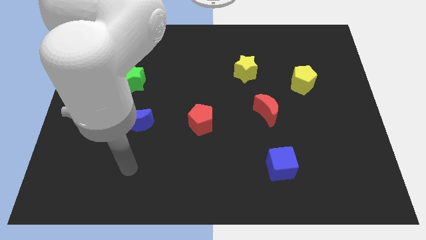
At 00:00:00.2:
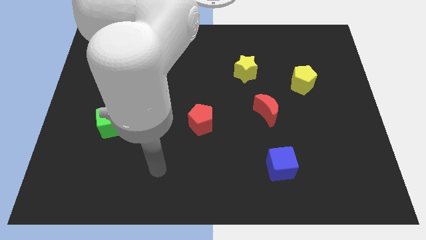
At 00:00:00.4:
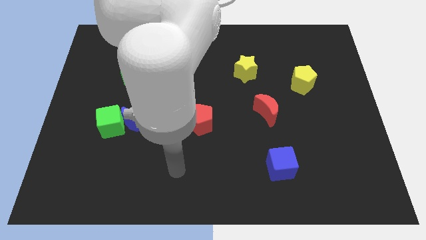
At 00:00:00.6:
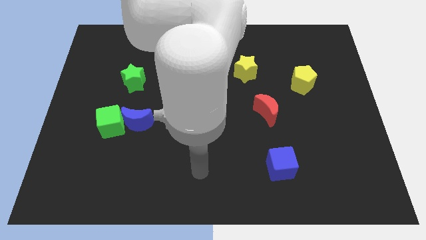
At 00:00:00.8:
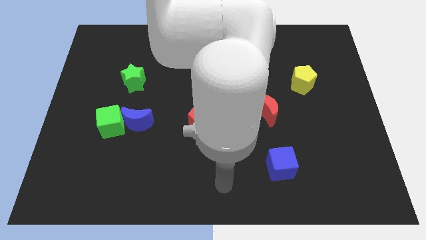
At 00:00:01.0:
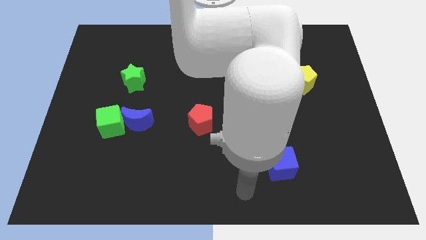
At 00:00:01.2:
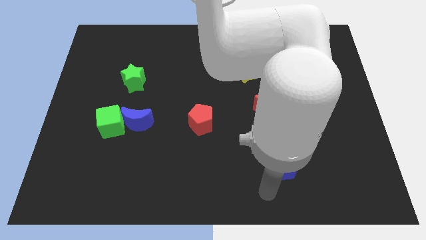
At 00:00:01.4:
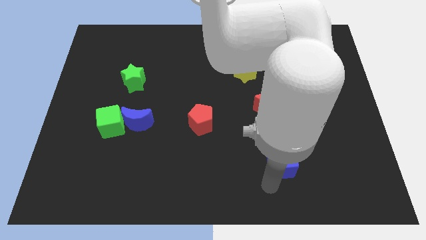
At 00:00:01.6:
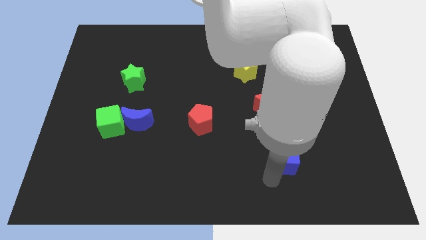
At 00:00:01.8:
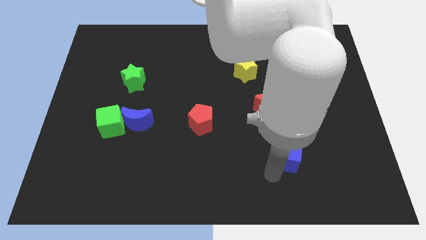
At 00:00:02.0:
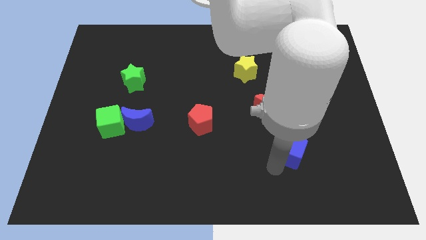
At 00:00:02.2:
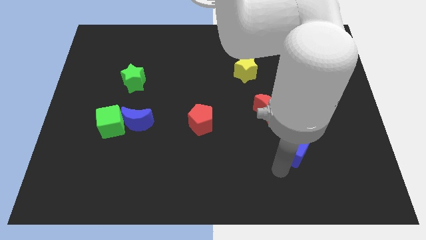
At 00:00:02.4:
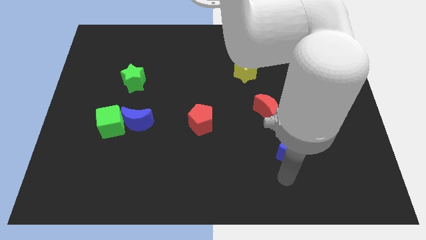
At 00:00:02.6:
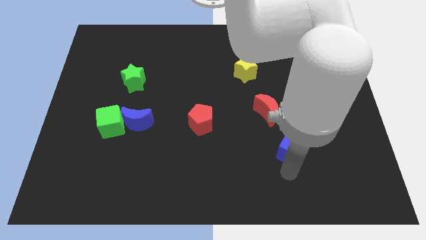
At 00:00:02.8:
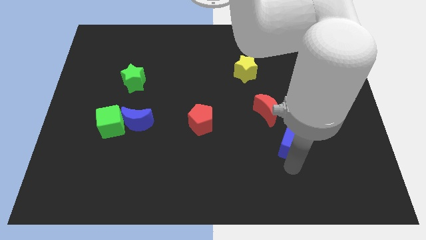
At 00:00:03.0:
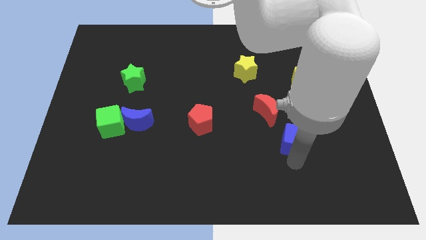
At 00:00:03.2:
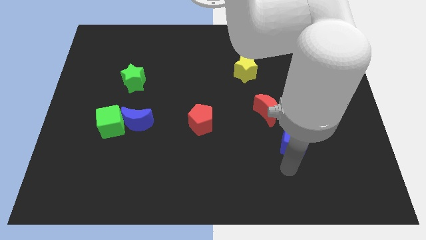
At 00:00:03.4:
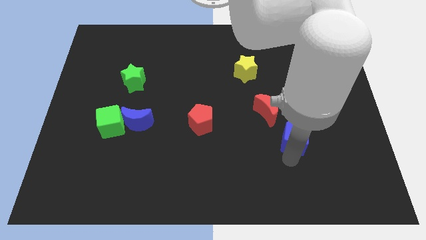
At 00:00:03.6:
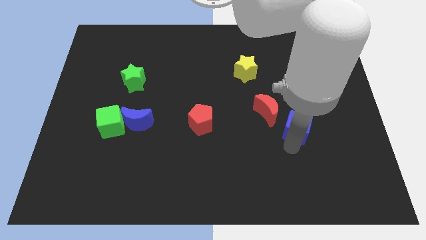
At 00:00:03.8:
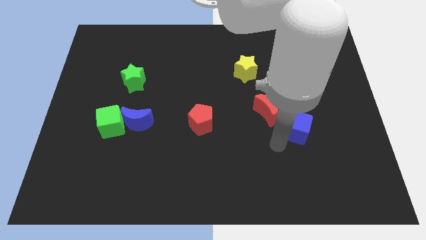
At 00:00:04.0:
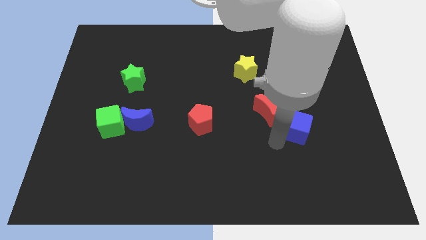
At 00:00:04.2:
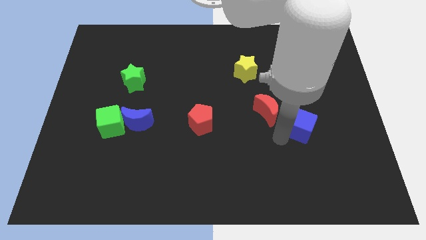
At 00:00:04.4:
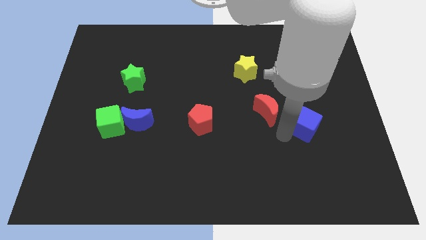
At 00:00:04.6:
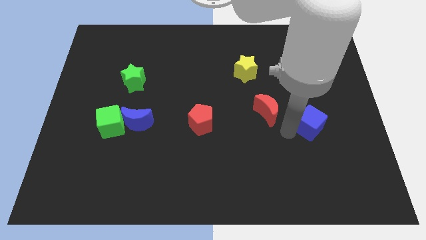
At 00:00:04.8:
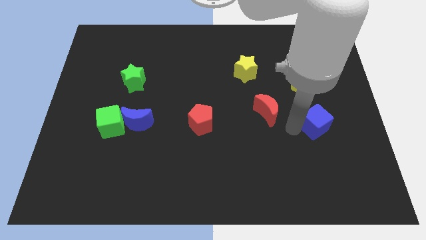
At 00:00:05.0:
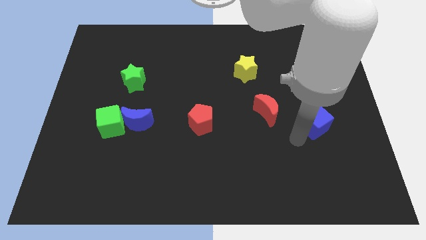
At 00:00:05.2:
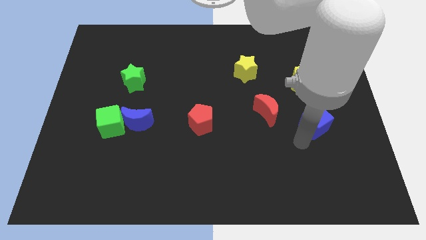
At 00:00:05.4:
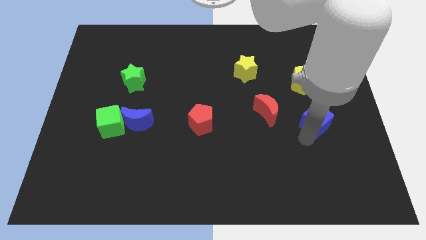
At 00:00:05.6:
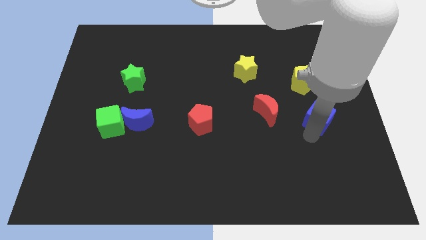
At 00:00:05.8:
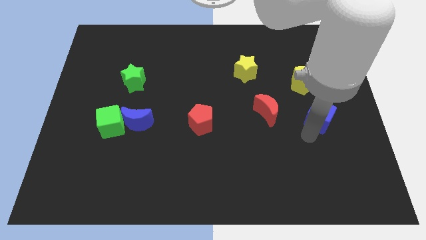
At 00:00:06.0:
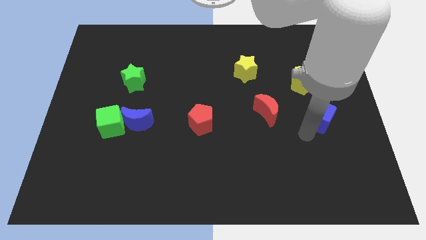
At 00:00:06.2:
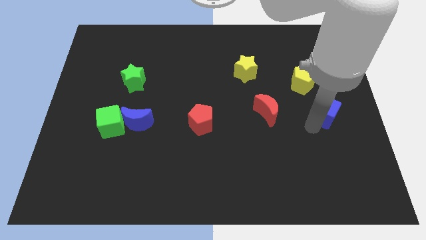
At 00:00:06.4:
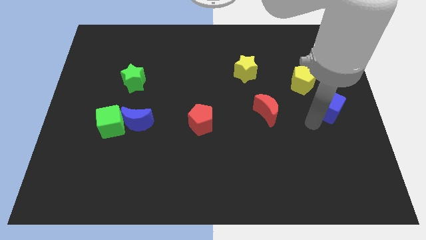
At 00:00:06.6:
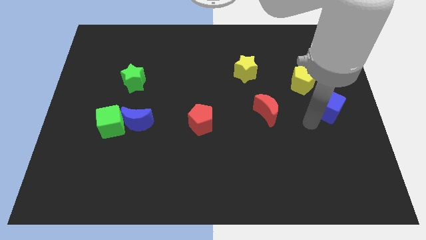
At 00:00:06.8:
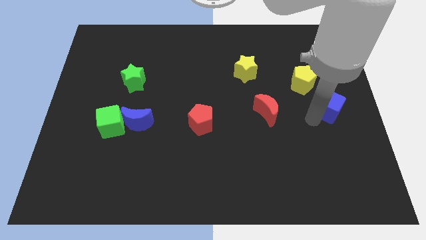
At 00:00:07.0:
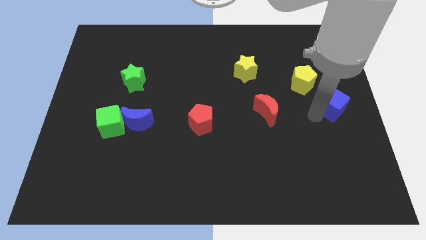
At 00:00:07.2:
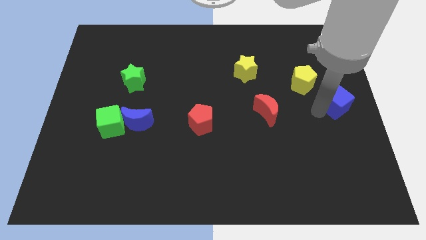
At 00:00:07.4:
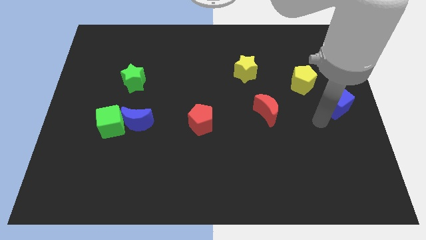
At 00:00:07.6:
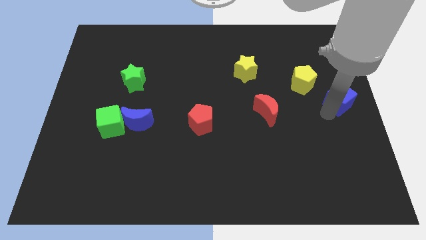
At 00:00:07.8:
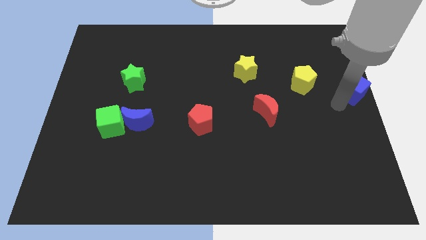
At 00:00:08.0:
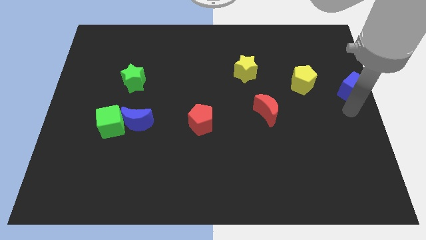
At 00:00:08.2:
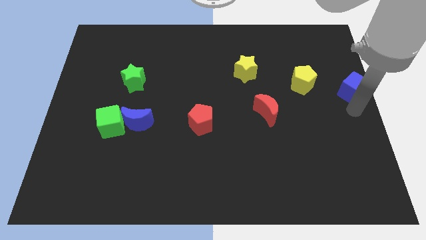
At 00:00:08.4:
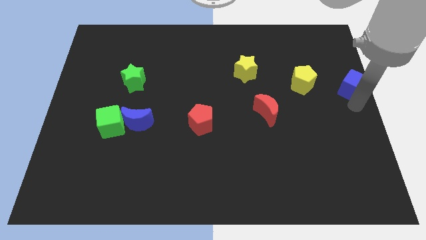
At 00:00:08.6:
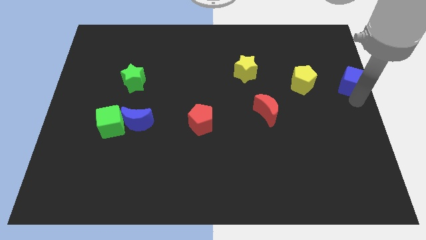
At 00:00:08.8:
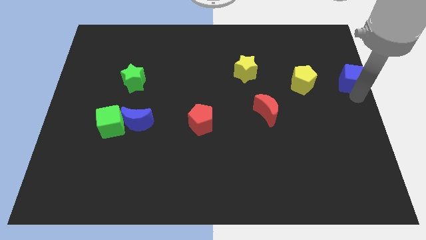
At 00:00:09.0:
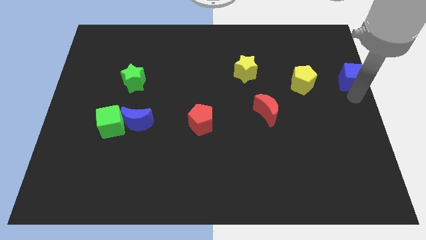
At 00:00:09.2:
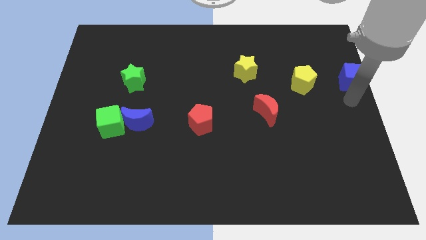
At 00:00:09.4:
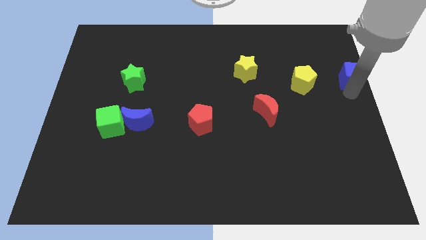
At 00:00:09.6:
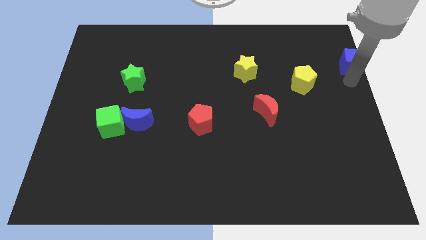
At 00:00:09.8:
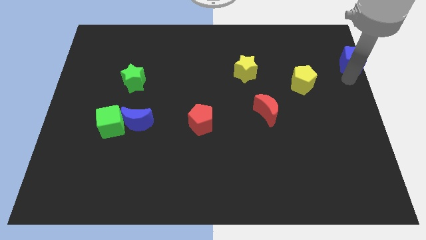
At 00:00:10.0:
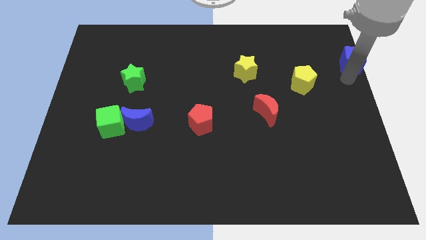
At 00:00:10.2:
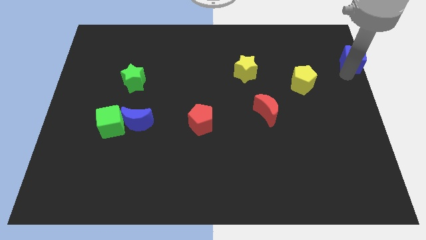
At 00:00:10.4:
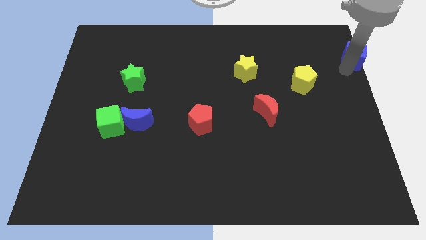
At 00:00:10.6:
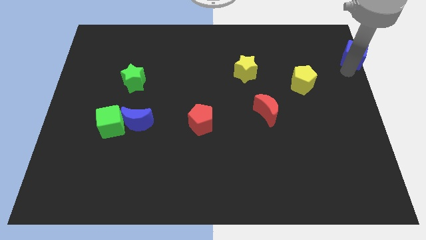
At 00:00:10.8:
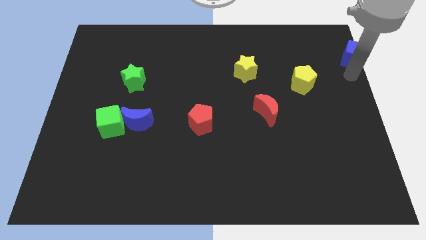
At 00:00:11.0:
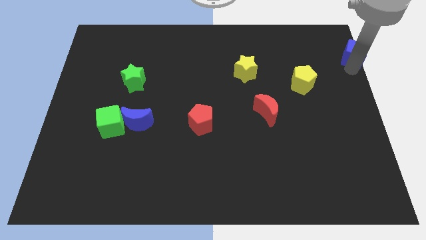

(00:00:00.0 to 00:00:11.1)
move the blue cube to the top right corner
